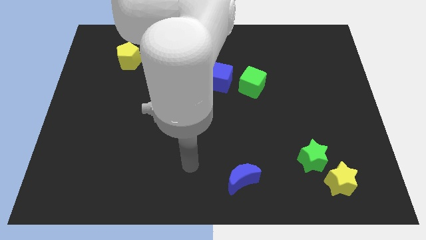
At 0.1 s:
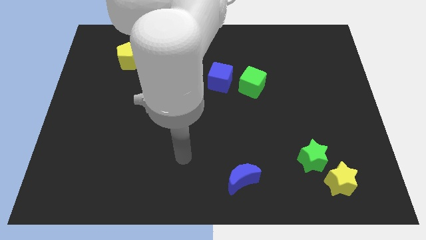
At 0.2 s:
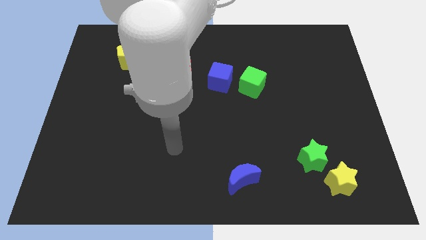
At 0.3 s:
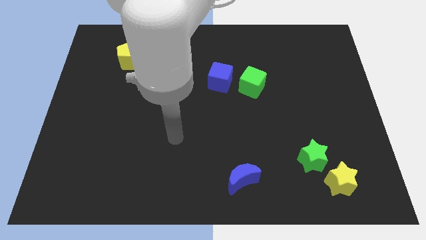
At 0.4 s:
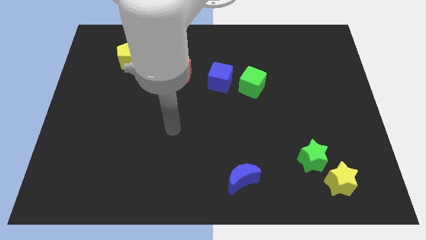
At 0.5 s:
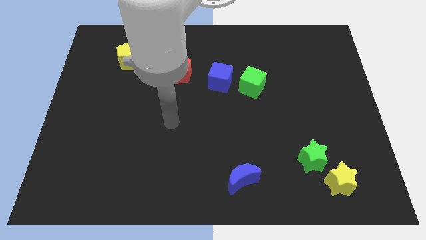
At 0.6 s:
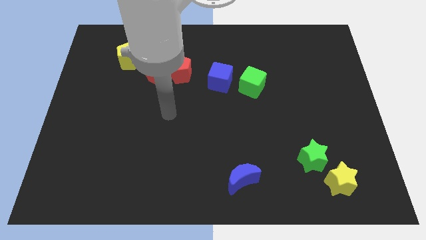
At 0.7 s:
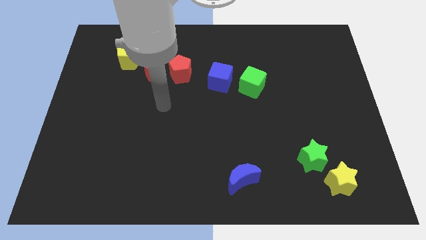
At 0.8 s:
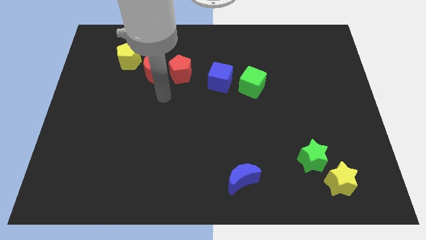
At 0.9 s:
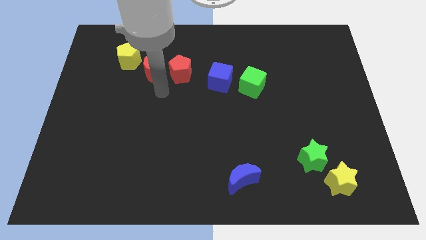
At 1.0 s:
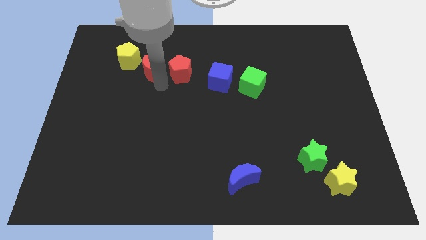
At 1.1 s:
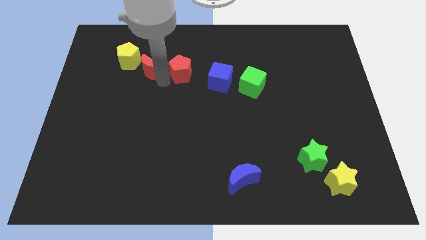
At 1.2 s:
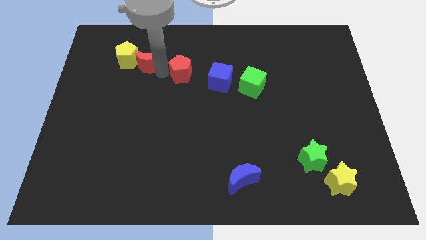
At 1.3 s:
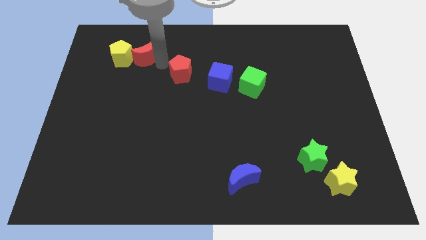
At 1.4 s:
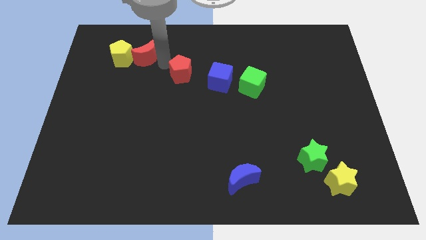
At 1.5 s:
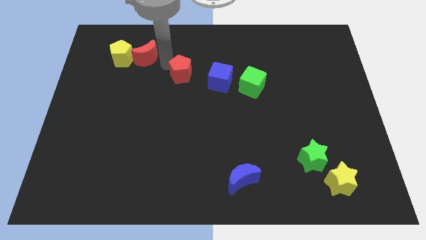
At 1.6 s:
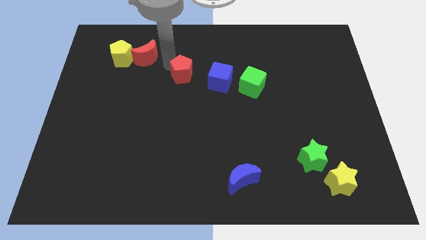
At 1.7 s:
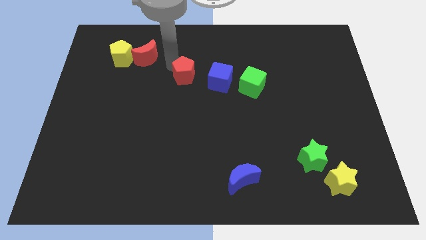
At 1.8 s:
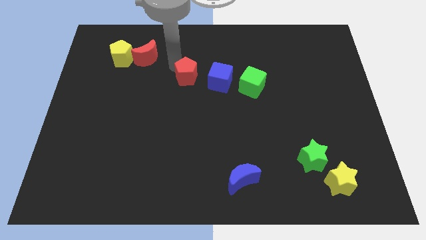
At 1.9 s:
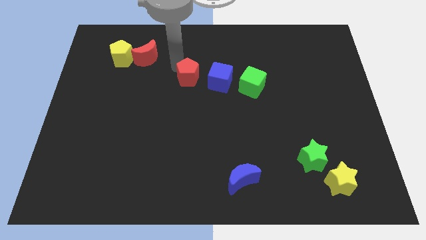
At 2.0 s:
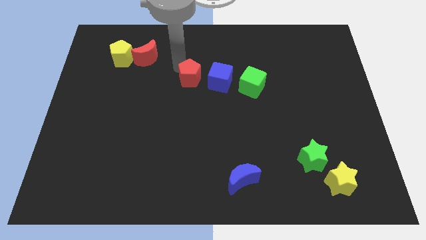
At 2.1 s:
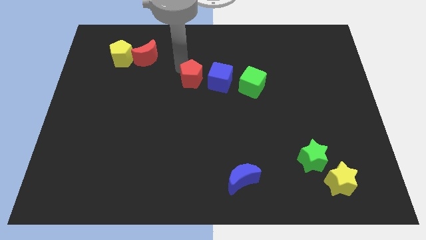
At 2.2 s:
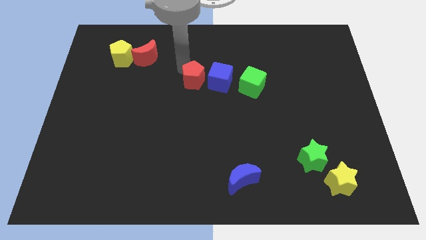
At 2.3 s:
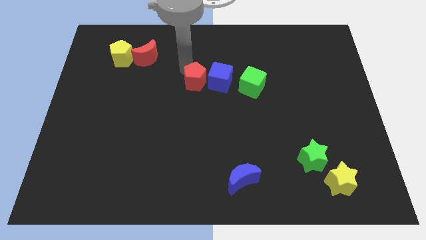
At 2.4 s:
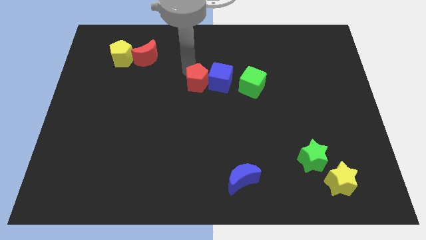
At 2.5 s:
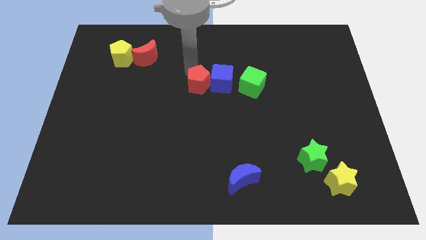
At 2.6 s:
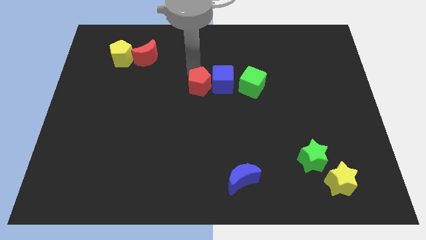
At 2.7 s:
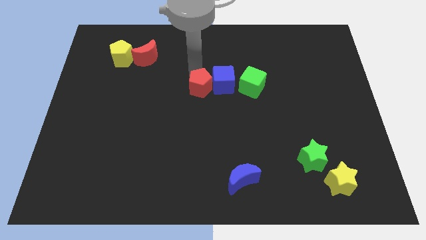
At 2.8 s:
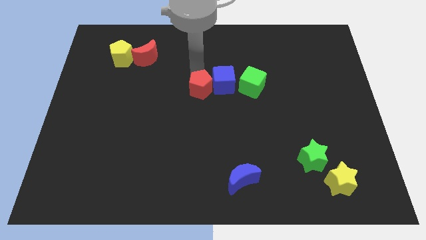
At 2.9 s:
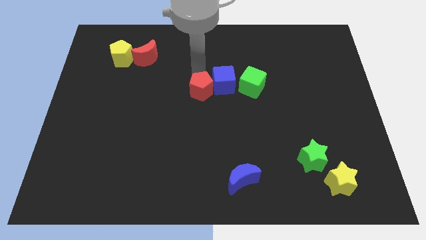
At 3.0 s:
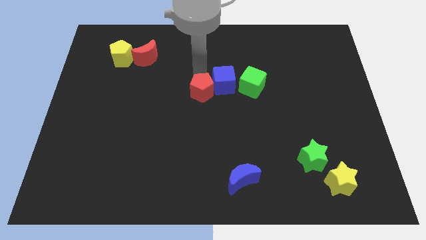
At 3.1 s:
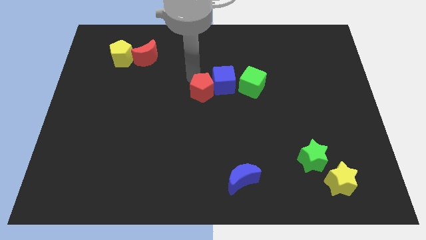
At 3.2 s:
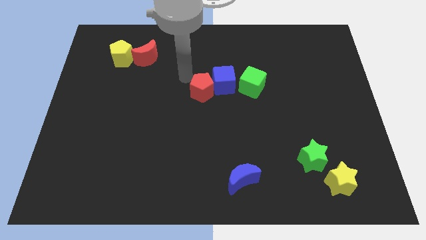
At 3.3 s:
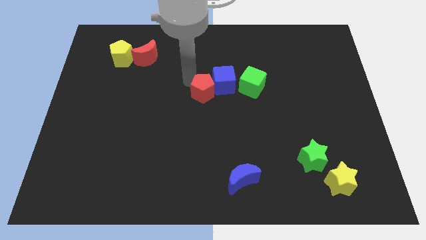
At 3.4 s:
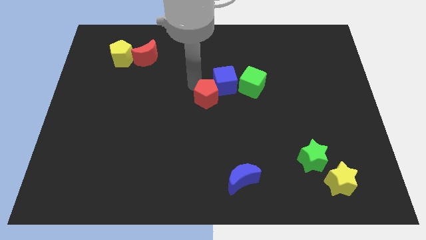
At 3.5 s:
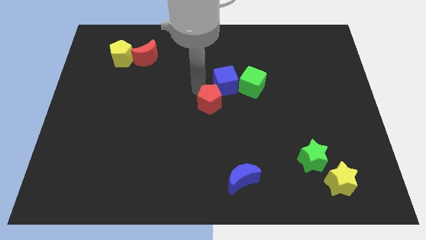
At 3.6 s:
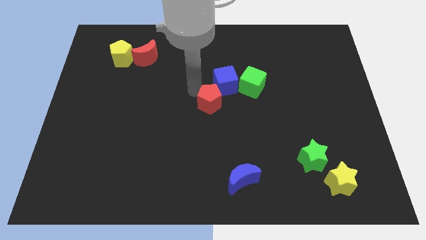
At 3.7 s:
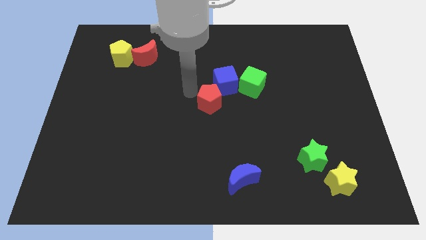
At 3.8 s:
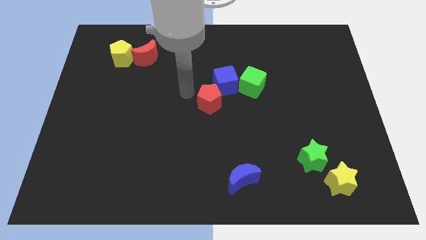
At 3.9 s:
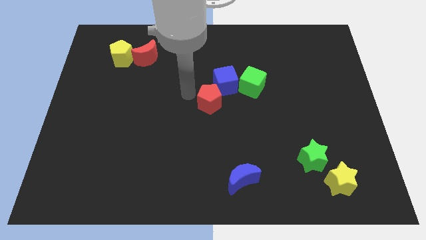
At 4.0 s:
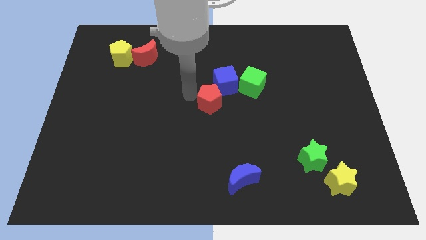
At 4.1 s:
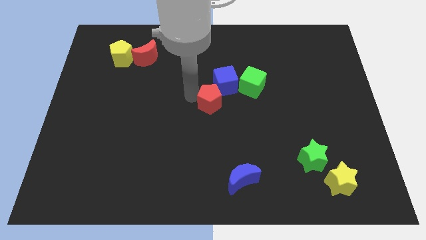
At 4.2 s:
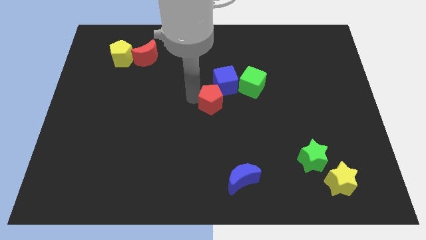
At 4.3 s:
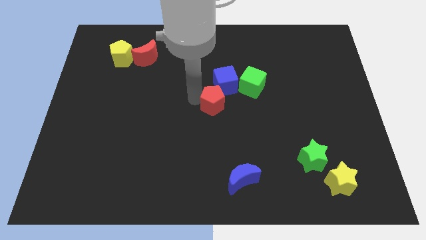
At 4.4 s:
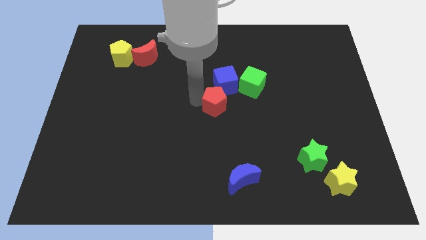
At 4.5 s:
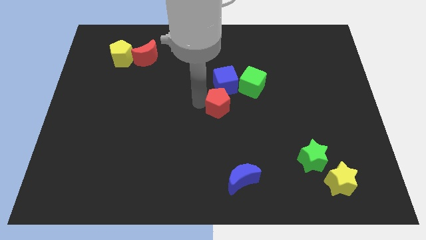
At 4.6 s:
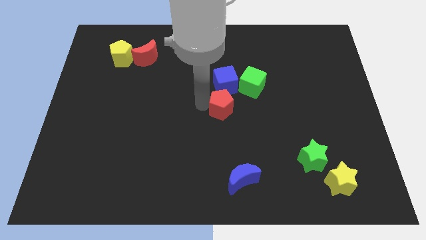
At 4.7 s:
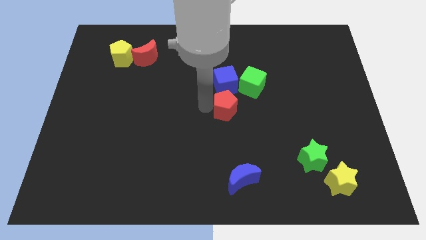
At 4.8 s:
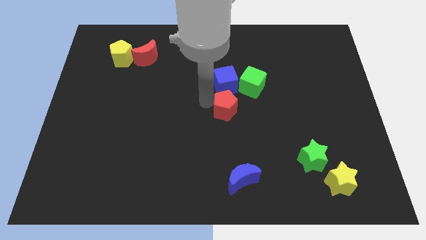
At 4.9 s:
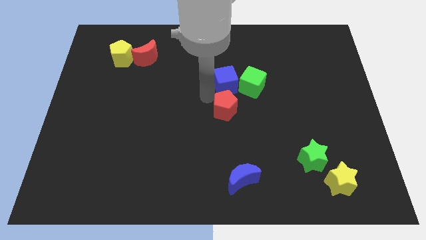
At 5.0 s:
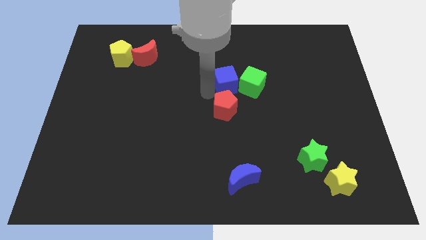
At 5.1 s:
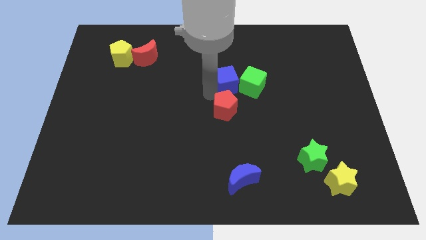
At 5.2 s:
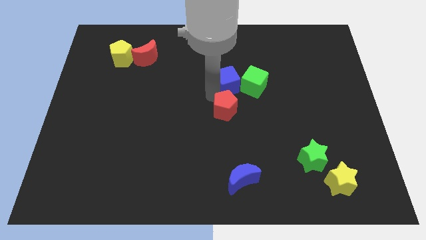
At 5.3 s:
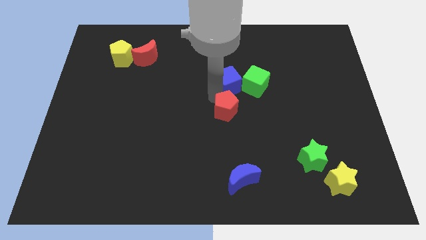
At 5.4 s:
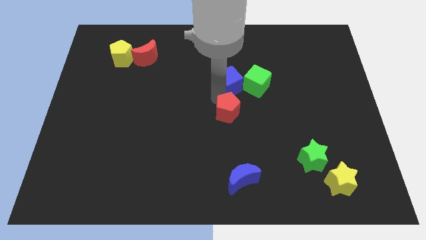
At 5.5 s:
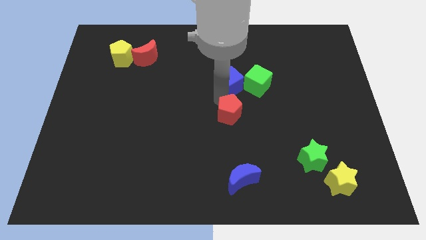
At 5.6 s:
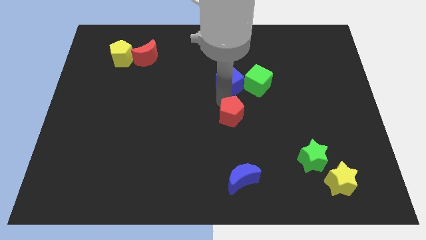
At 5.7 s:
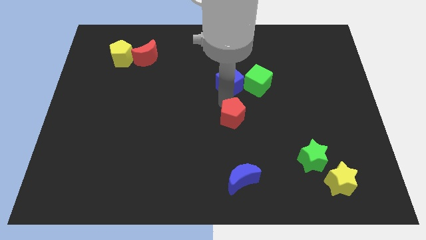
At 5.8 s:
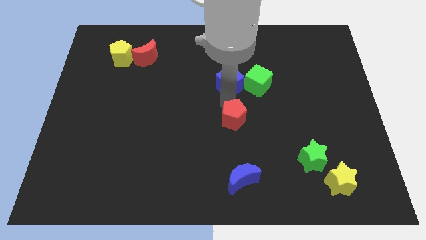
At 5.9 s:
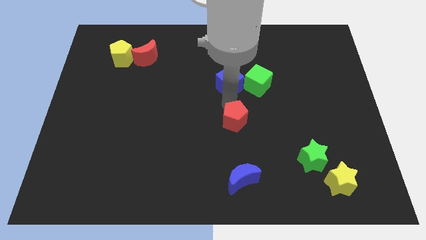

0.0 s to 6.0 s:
push the red pentagon down and to the right

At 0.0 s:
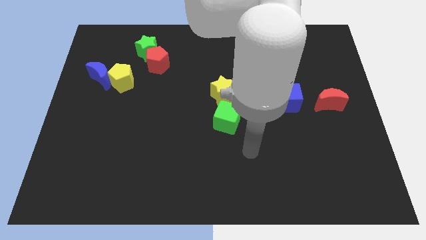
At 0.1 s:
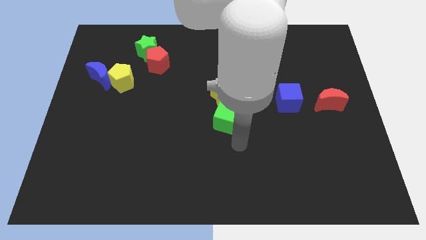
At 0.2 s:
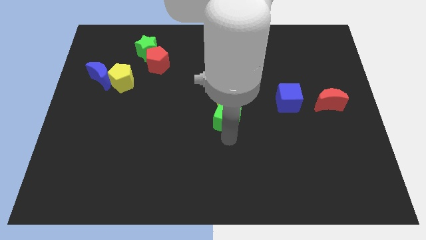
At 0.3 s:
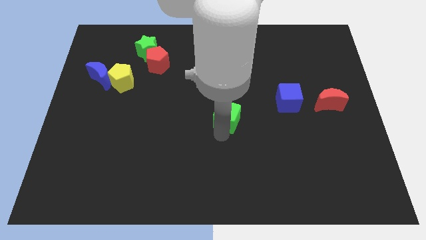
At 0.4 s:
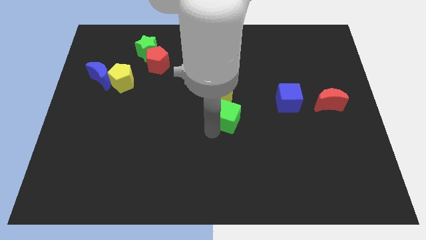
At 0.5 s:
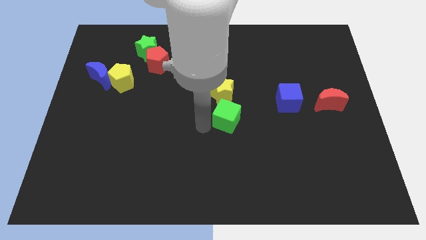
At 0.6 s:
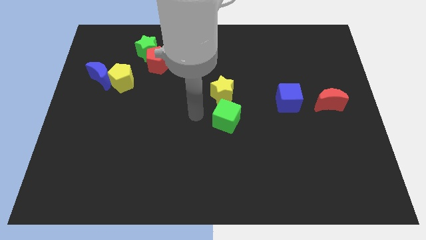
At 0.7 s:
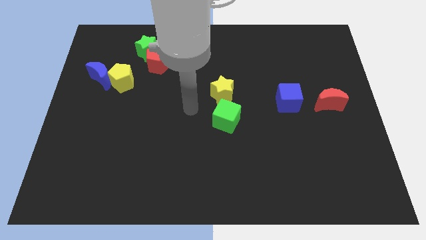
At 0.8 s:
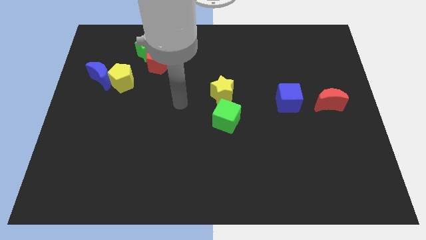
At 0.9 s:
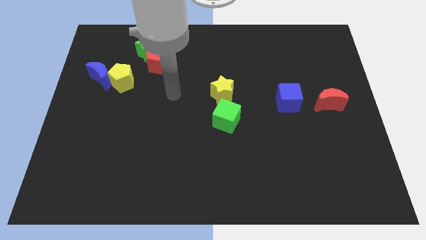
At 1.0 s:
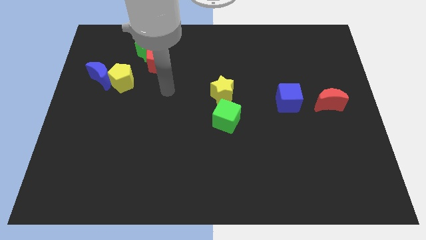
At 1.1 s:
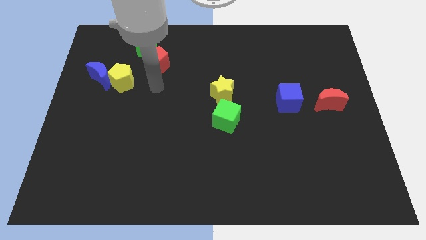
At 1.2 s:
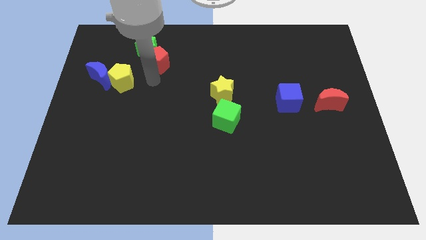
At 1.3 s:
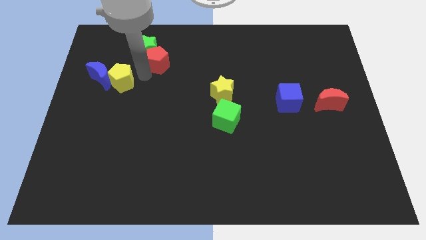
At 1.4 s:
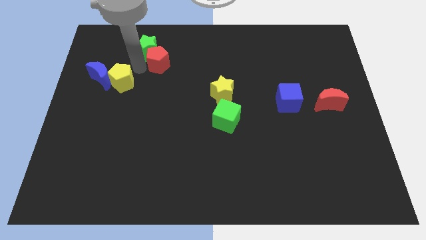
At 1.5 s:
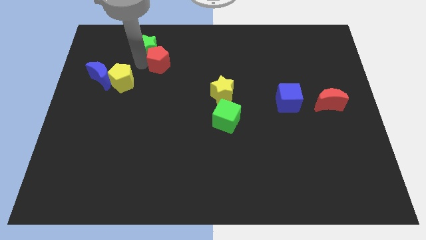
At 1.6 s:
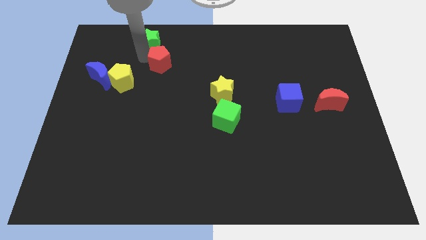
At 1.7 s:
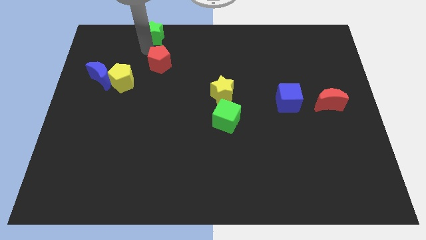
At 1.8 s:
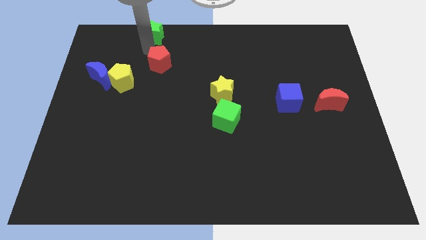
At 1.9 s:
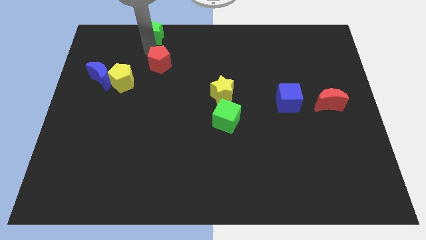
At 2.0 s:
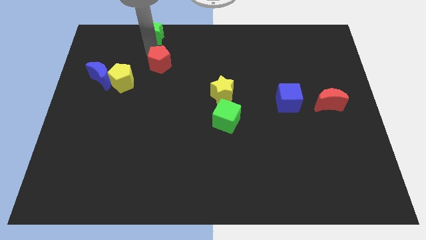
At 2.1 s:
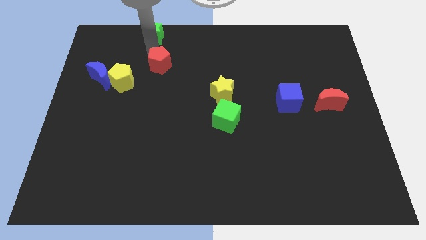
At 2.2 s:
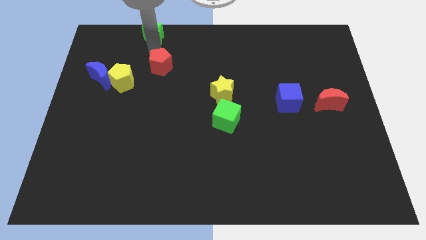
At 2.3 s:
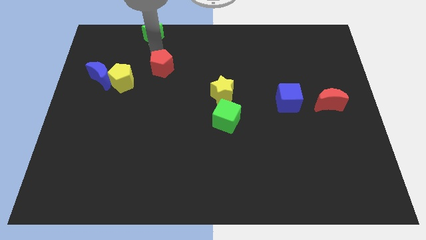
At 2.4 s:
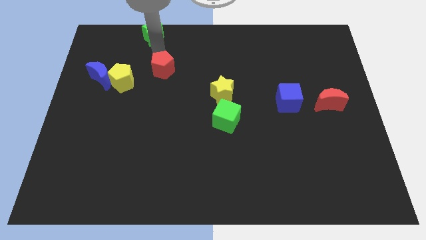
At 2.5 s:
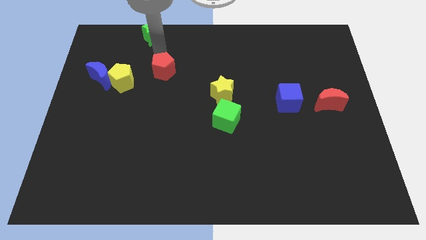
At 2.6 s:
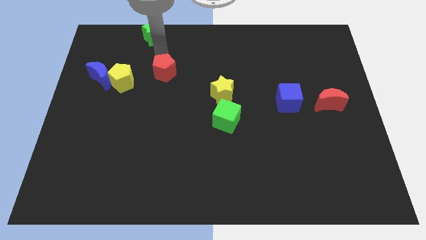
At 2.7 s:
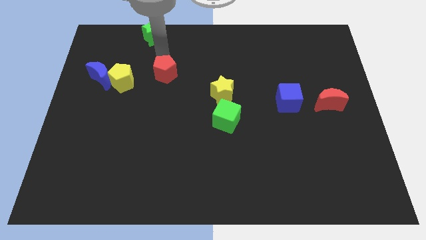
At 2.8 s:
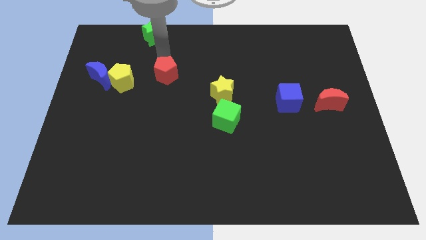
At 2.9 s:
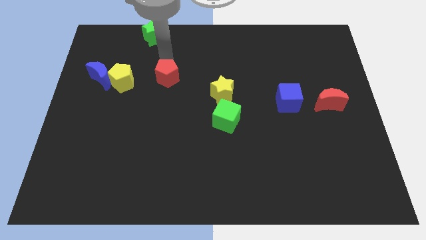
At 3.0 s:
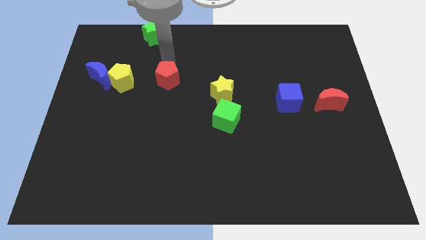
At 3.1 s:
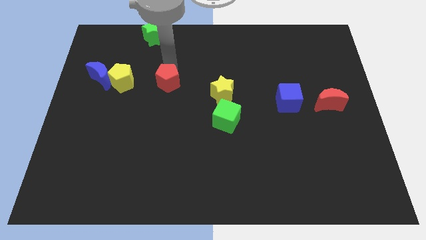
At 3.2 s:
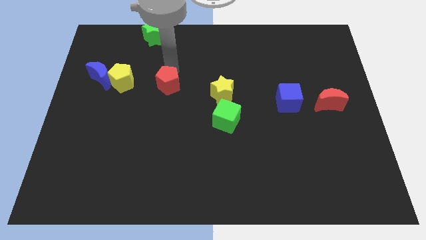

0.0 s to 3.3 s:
push the red pentagon somewhat down and then right
